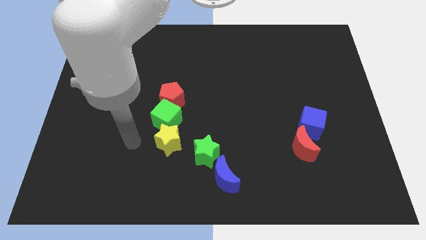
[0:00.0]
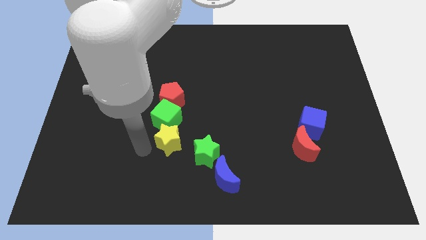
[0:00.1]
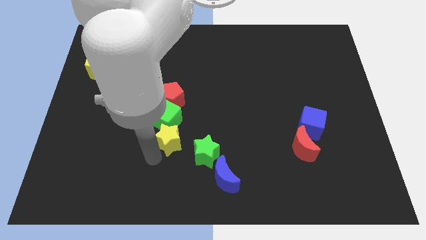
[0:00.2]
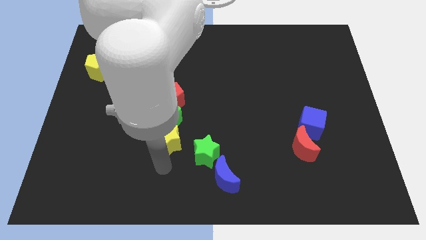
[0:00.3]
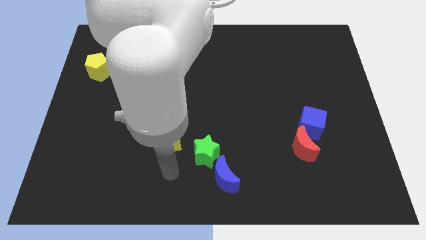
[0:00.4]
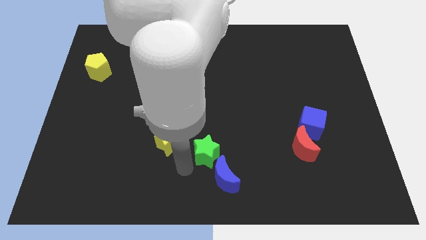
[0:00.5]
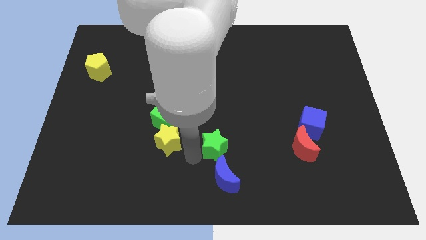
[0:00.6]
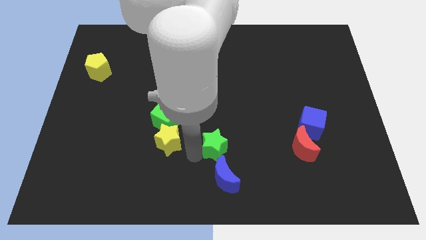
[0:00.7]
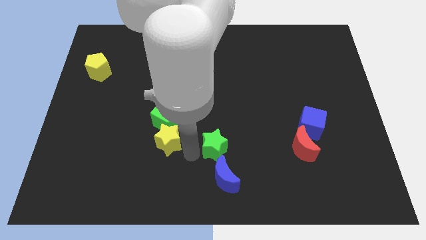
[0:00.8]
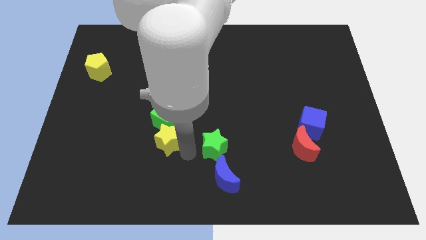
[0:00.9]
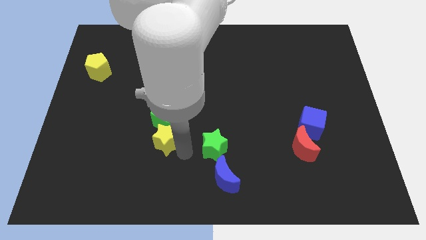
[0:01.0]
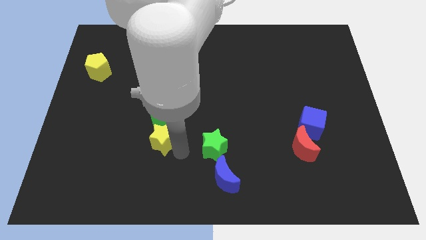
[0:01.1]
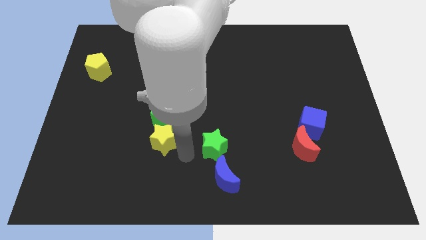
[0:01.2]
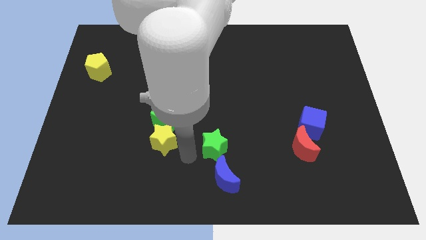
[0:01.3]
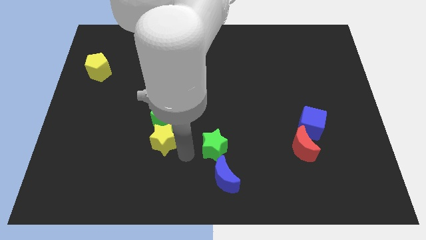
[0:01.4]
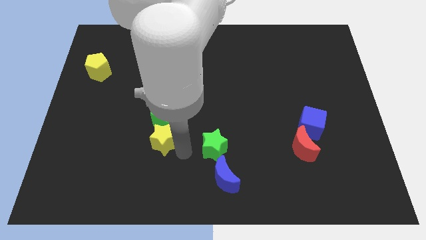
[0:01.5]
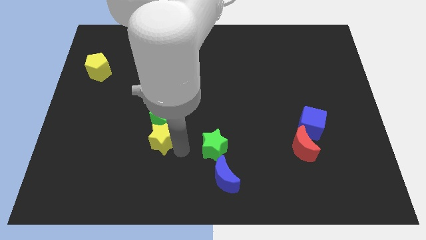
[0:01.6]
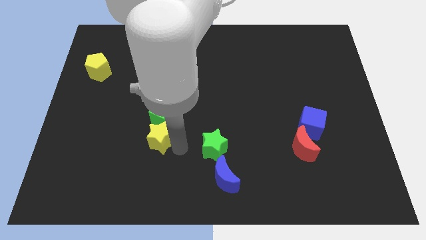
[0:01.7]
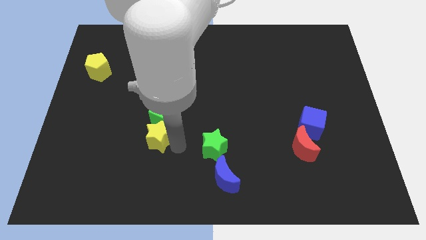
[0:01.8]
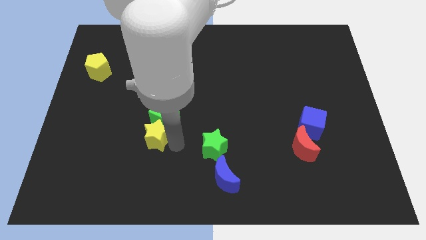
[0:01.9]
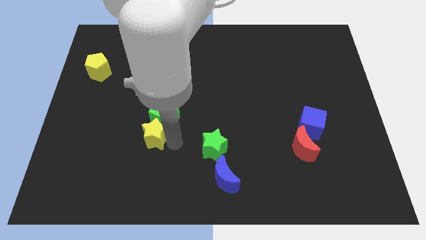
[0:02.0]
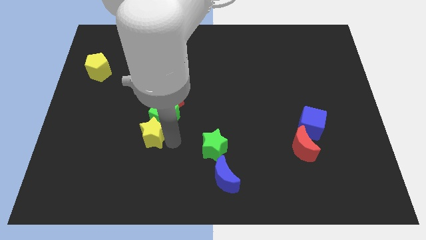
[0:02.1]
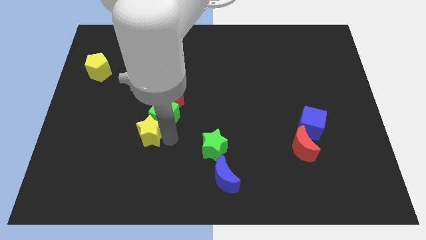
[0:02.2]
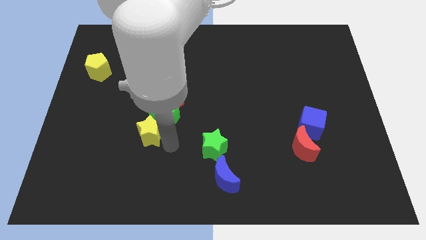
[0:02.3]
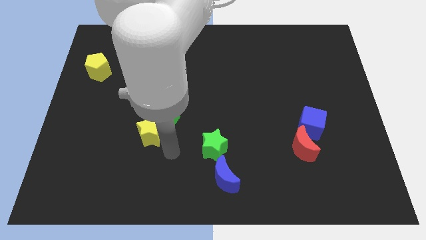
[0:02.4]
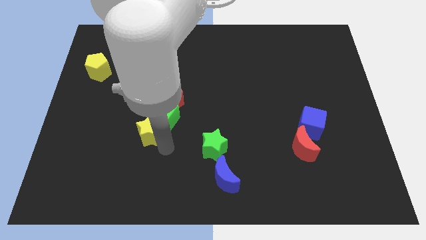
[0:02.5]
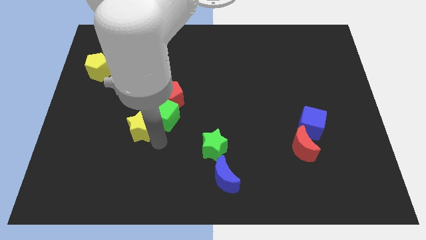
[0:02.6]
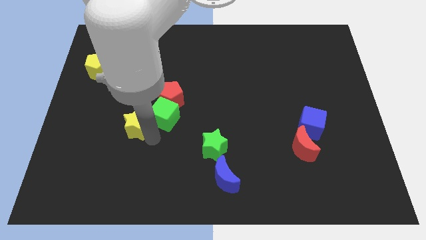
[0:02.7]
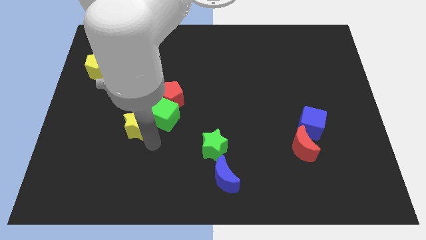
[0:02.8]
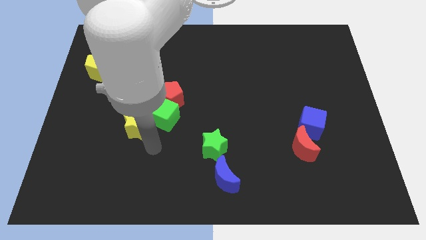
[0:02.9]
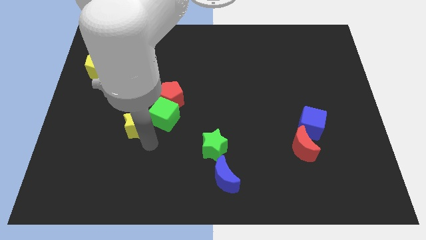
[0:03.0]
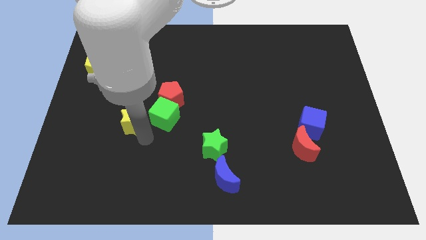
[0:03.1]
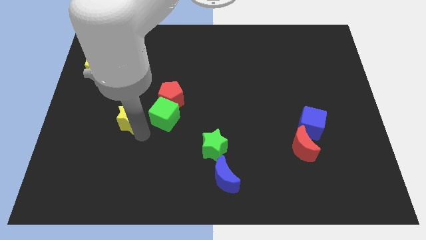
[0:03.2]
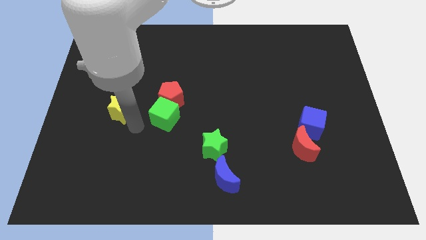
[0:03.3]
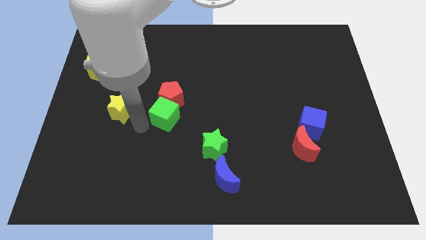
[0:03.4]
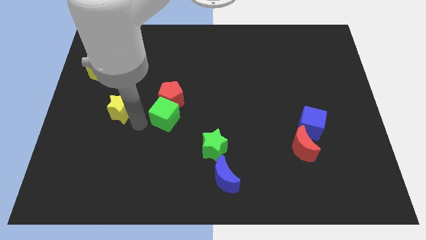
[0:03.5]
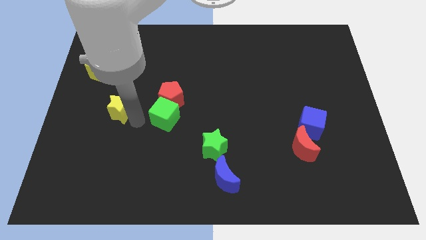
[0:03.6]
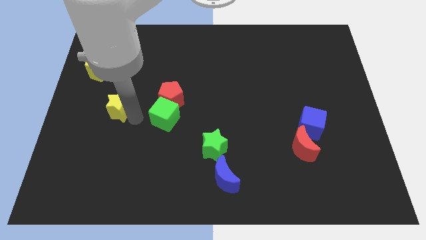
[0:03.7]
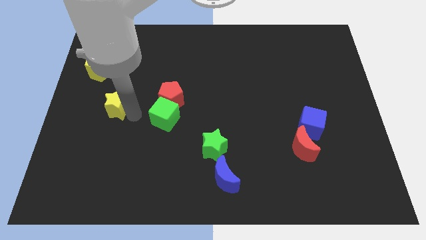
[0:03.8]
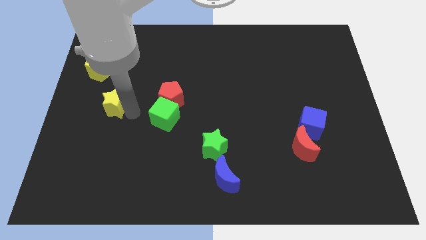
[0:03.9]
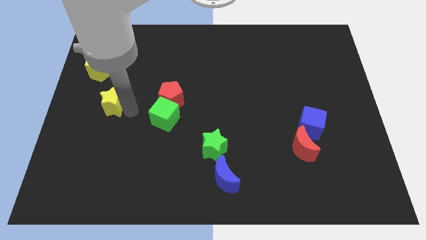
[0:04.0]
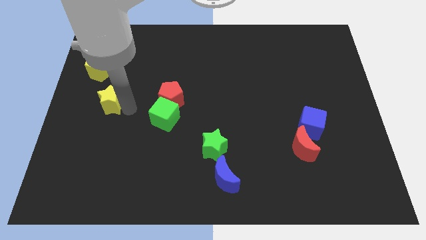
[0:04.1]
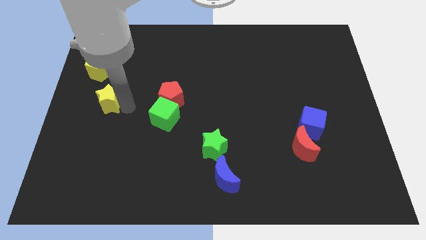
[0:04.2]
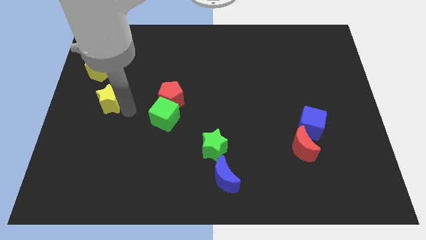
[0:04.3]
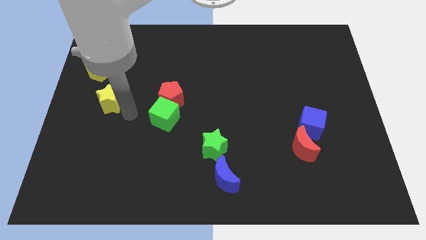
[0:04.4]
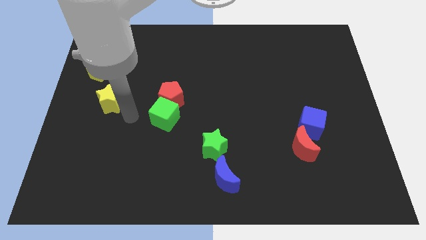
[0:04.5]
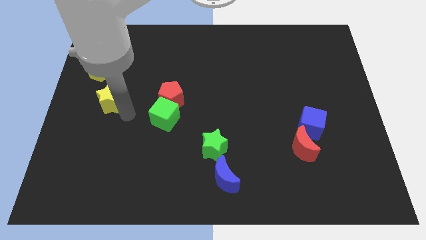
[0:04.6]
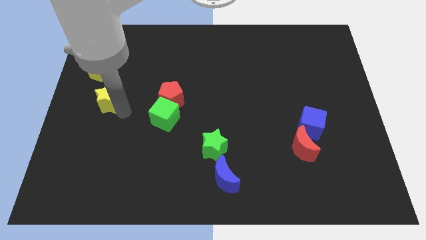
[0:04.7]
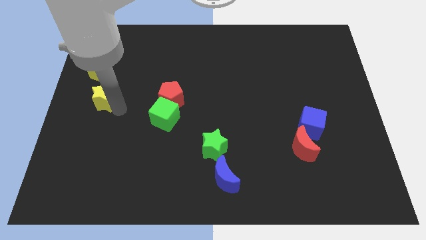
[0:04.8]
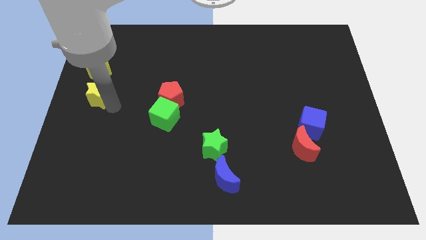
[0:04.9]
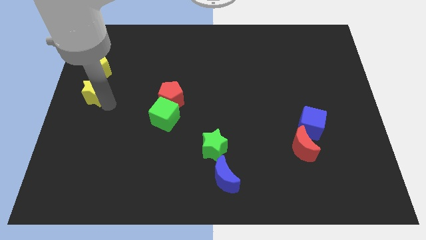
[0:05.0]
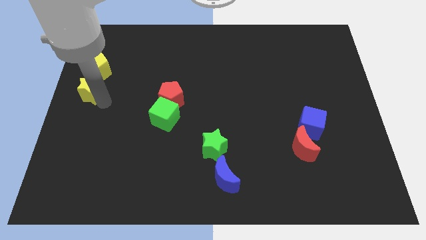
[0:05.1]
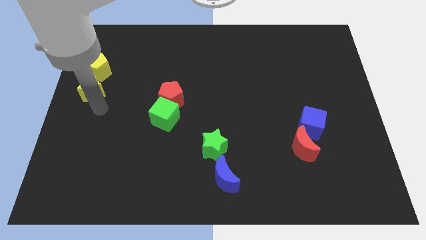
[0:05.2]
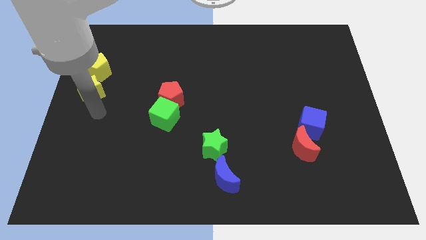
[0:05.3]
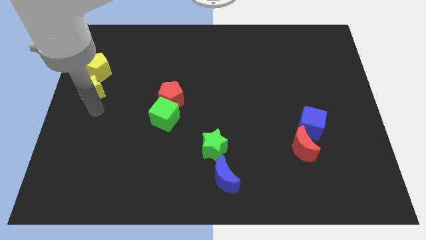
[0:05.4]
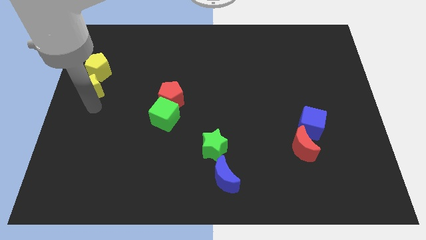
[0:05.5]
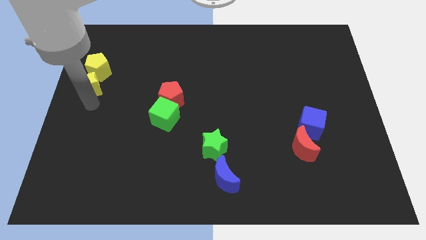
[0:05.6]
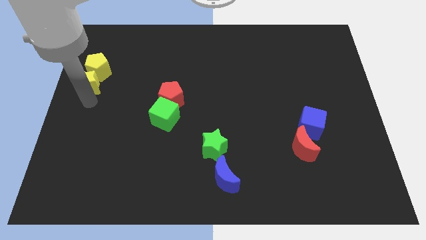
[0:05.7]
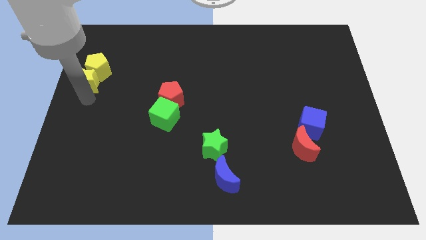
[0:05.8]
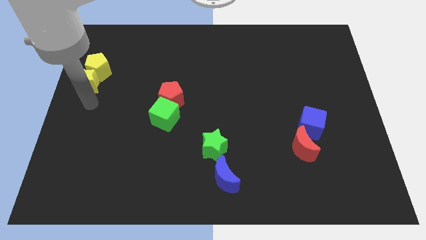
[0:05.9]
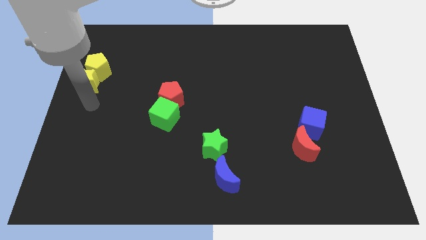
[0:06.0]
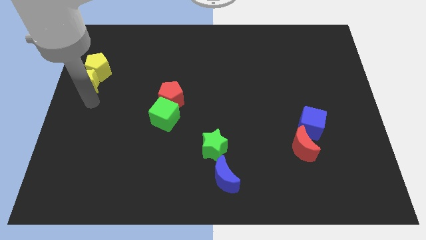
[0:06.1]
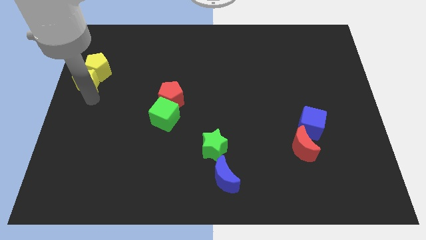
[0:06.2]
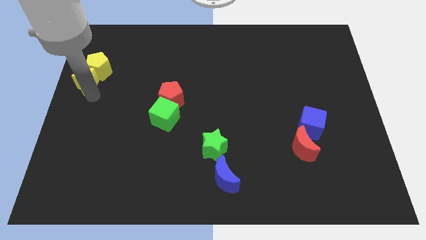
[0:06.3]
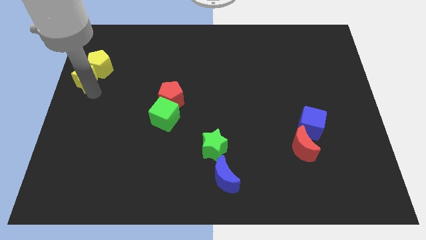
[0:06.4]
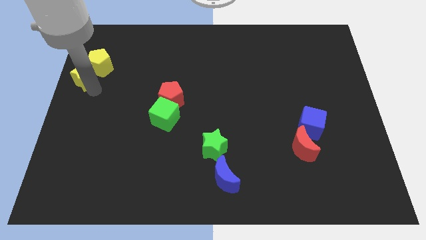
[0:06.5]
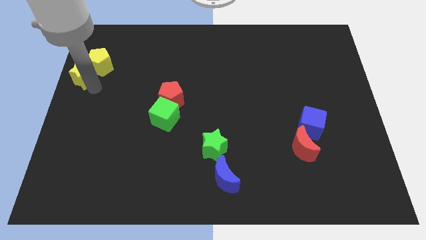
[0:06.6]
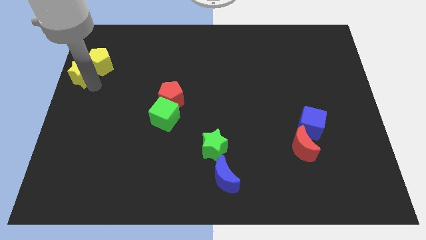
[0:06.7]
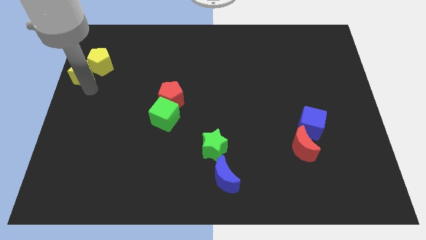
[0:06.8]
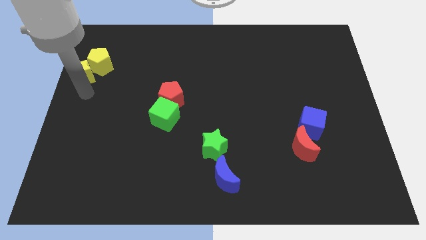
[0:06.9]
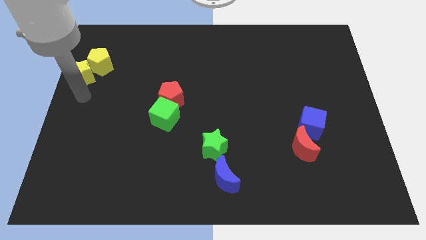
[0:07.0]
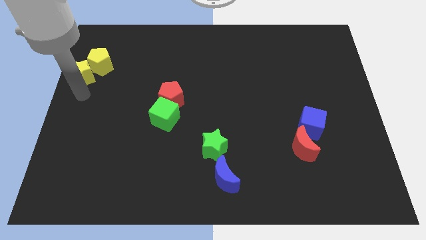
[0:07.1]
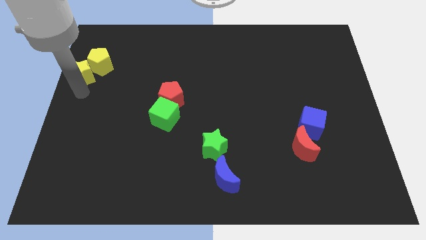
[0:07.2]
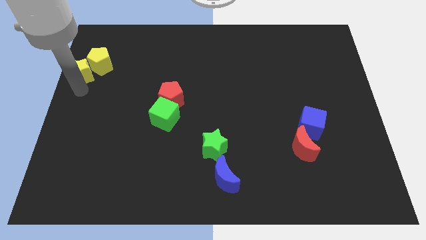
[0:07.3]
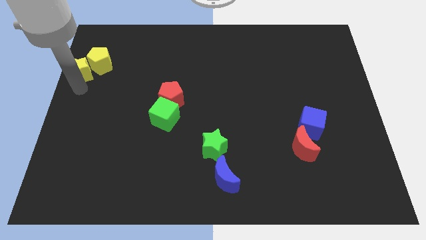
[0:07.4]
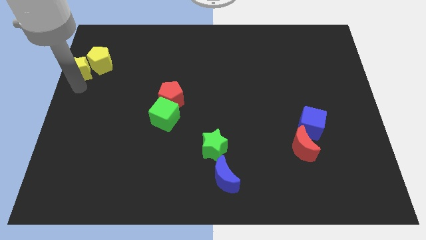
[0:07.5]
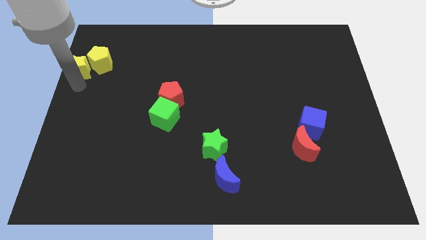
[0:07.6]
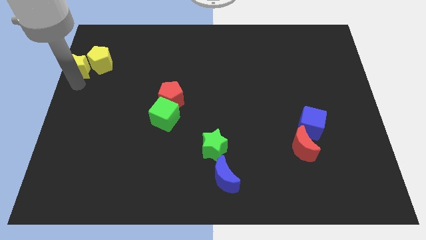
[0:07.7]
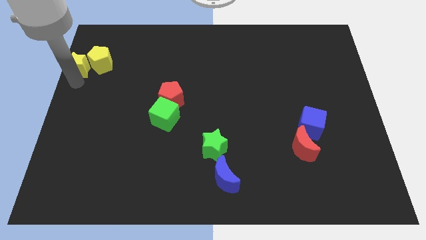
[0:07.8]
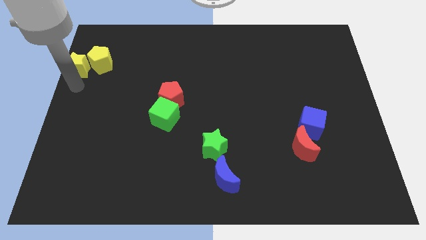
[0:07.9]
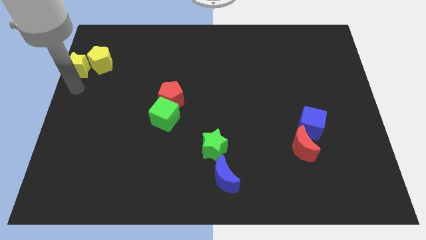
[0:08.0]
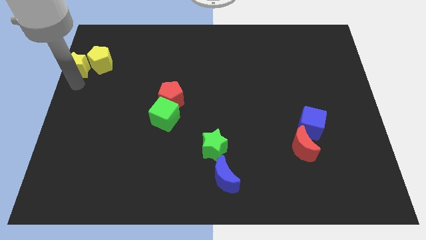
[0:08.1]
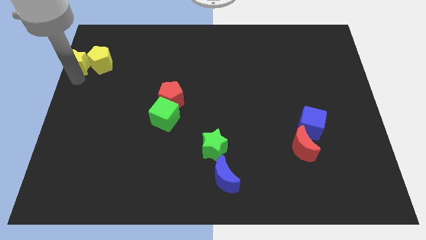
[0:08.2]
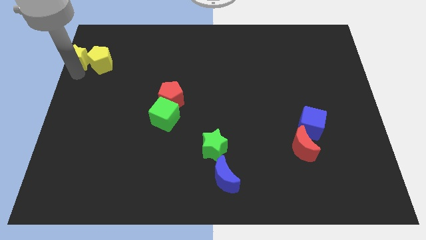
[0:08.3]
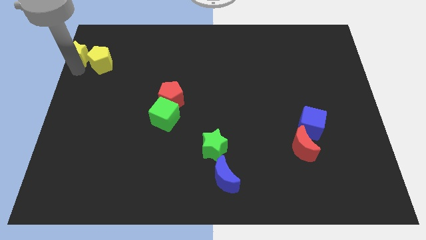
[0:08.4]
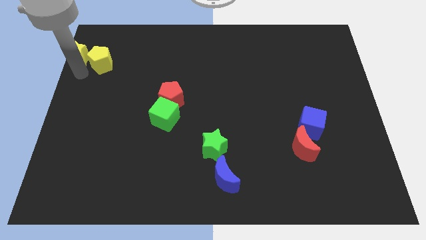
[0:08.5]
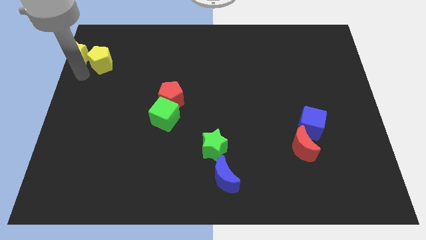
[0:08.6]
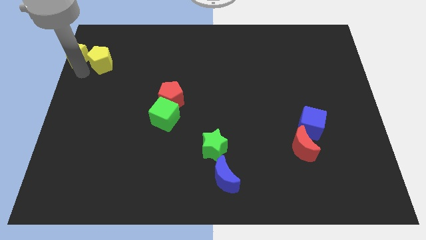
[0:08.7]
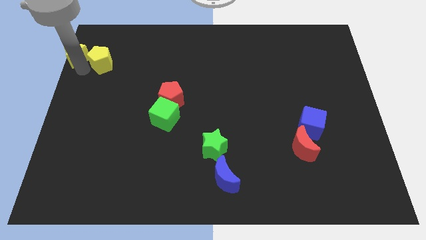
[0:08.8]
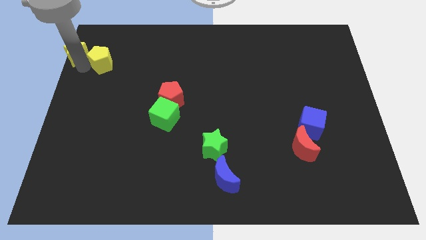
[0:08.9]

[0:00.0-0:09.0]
move the yellow star to the top left
